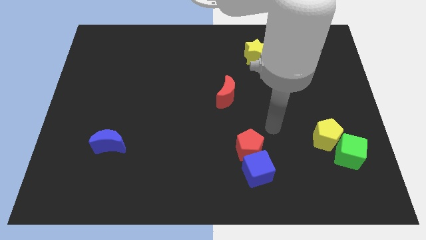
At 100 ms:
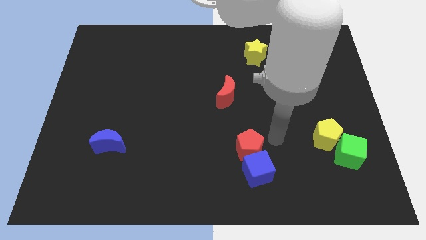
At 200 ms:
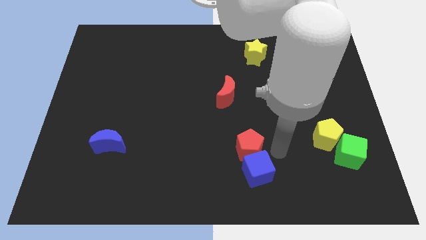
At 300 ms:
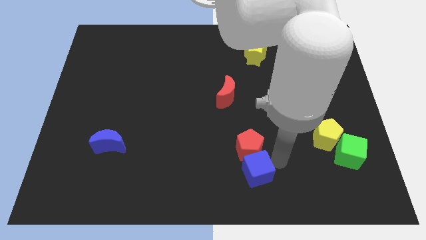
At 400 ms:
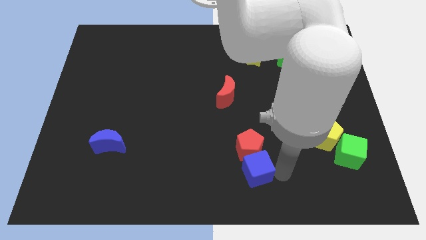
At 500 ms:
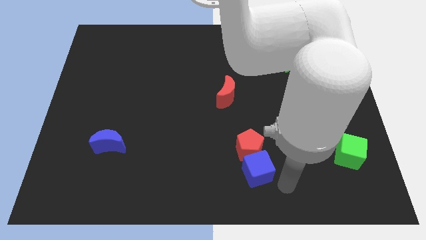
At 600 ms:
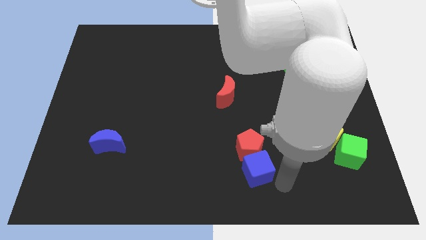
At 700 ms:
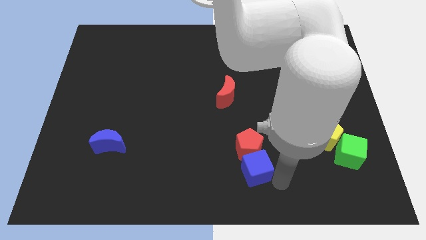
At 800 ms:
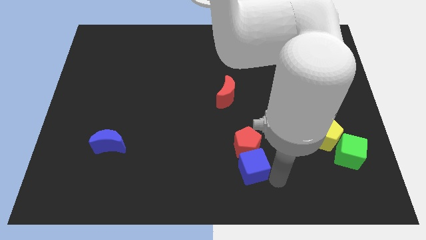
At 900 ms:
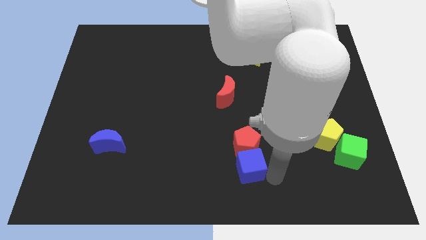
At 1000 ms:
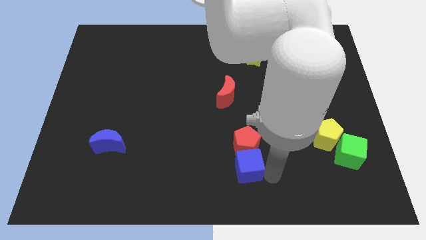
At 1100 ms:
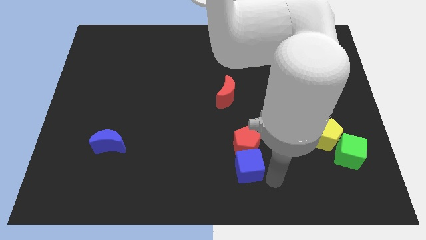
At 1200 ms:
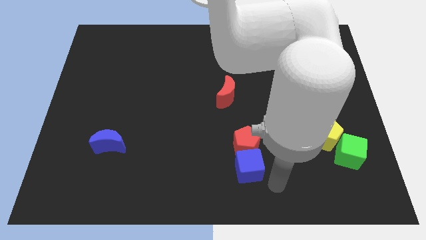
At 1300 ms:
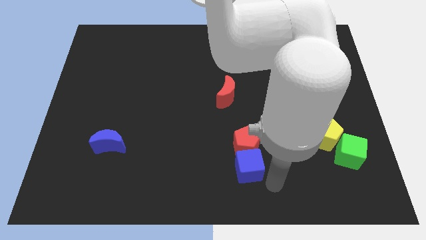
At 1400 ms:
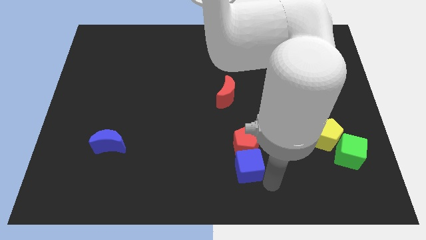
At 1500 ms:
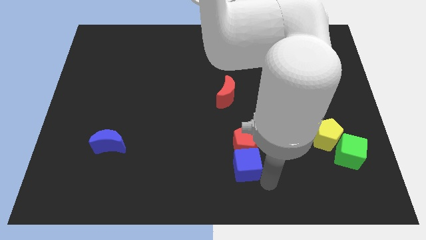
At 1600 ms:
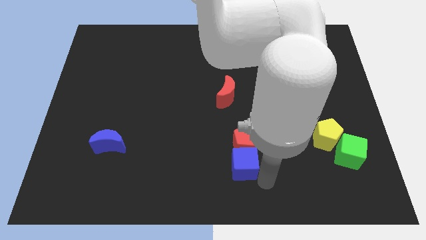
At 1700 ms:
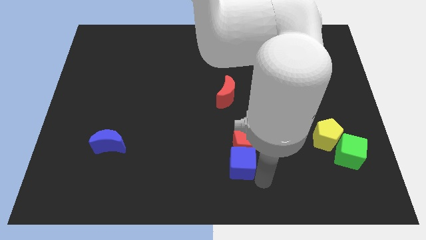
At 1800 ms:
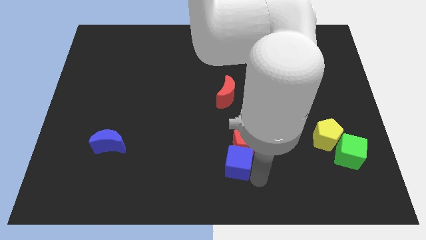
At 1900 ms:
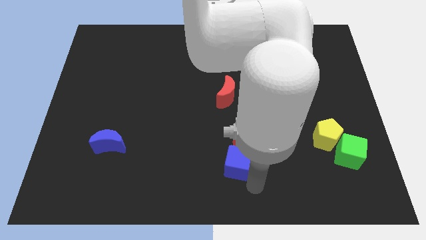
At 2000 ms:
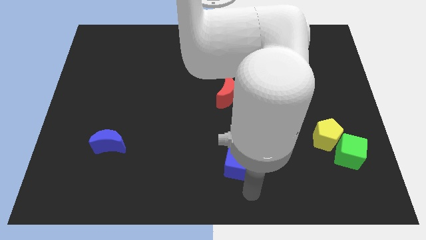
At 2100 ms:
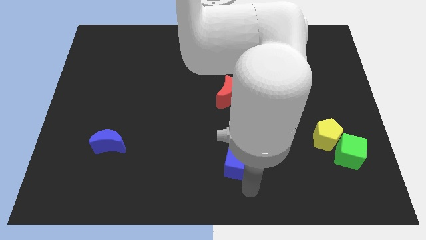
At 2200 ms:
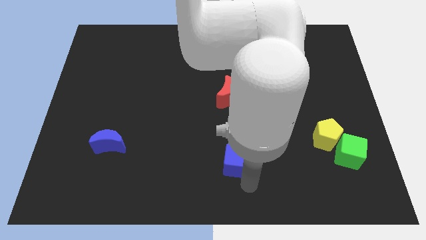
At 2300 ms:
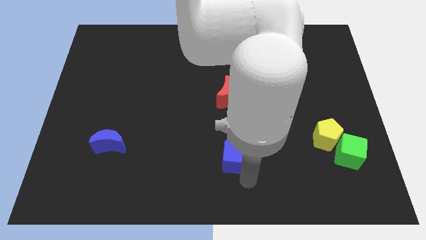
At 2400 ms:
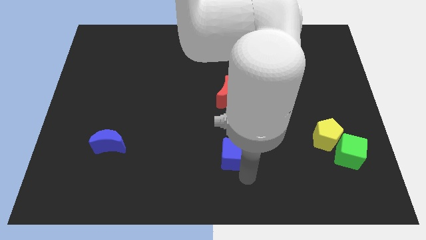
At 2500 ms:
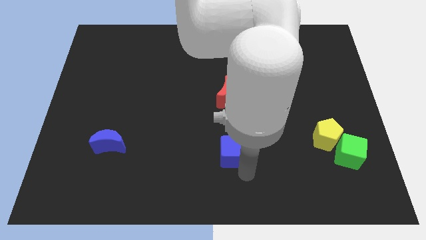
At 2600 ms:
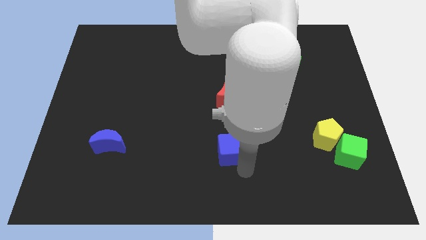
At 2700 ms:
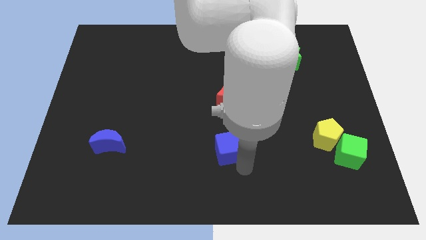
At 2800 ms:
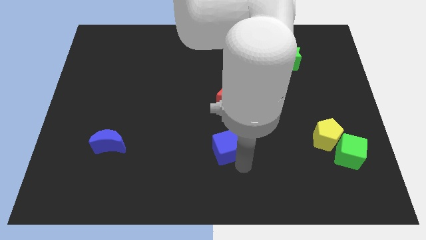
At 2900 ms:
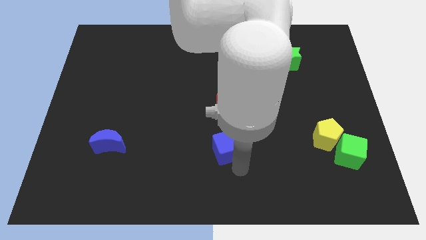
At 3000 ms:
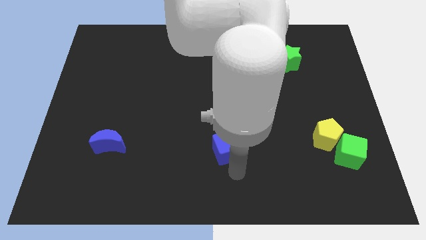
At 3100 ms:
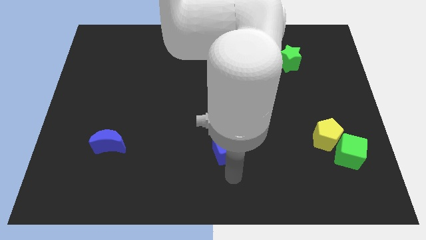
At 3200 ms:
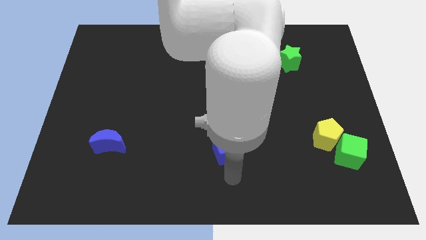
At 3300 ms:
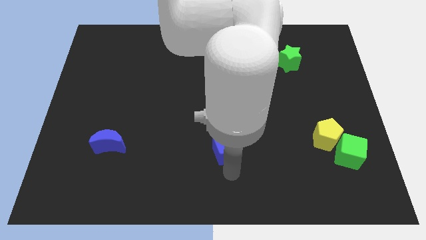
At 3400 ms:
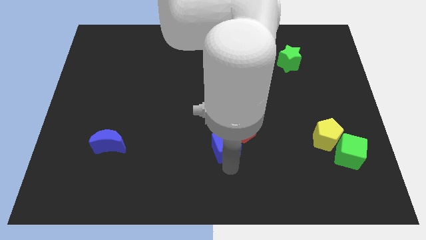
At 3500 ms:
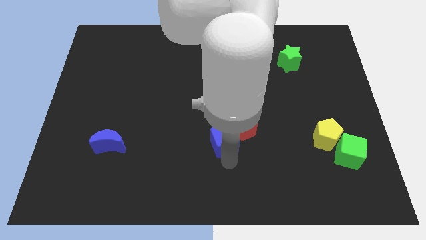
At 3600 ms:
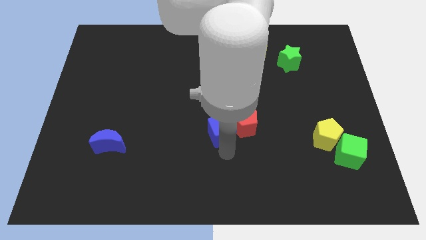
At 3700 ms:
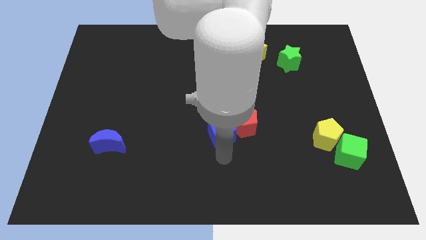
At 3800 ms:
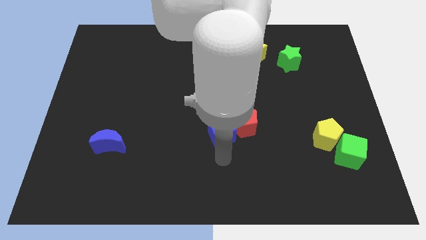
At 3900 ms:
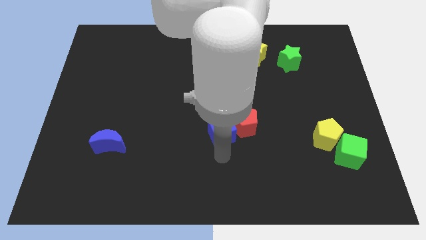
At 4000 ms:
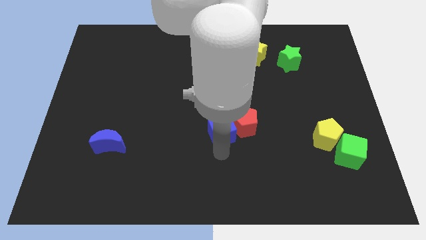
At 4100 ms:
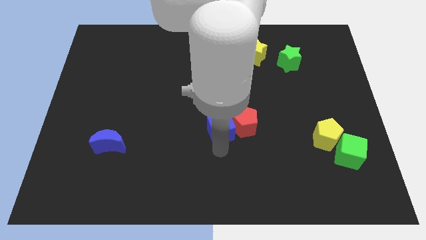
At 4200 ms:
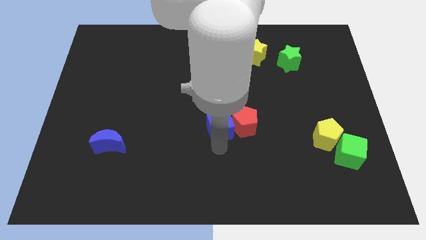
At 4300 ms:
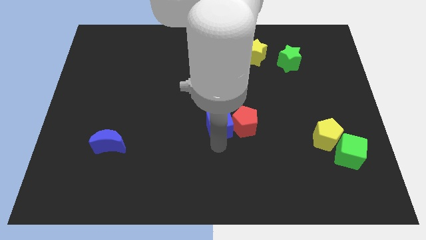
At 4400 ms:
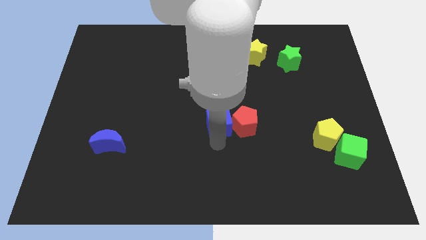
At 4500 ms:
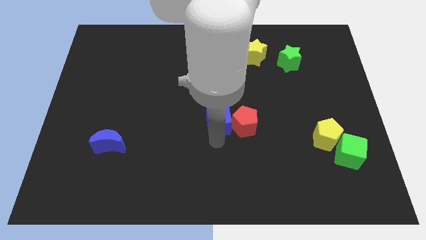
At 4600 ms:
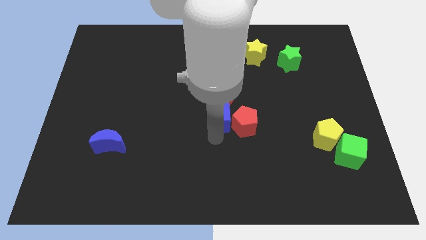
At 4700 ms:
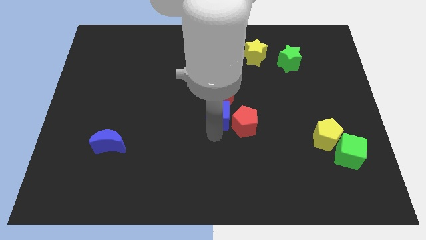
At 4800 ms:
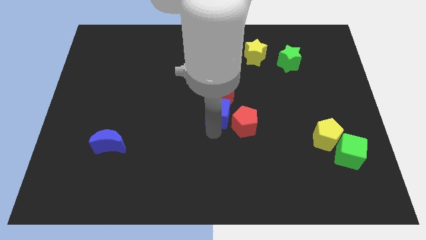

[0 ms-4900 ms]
push the blue cube close to the red moon

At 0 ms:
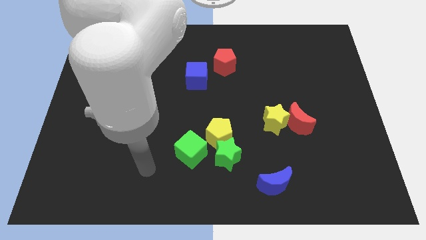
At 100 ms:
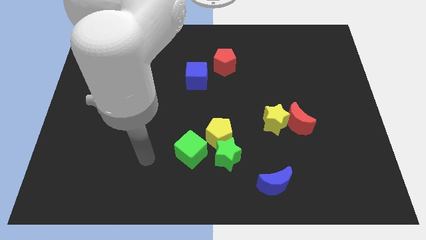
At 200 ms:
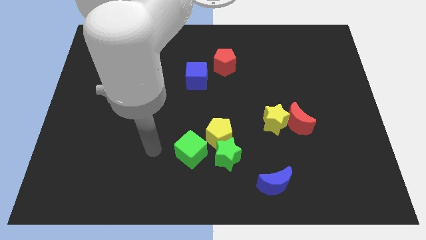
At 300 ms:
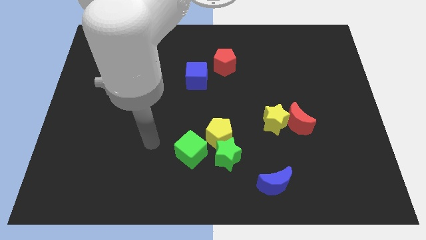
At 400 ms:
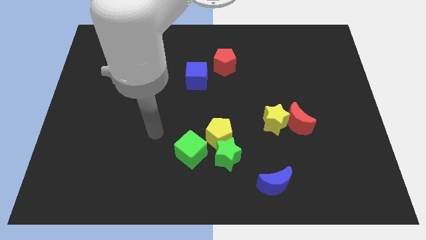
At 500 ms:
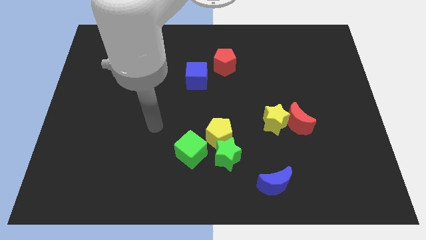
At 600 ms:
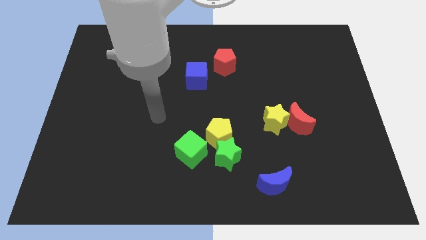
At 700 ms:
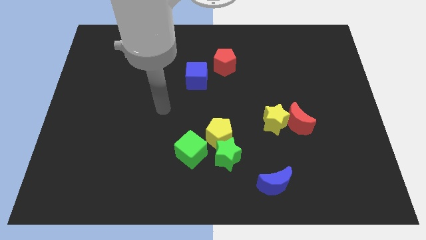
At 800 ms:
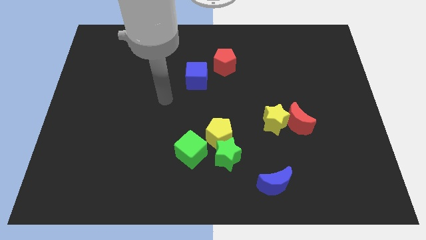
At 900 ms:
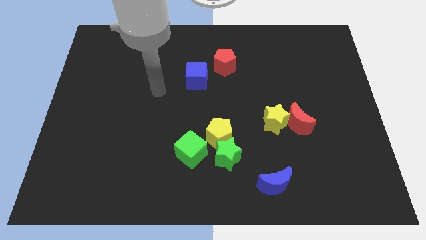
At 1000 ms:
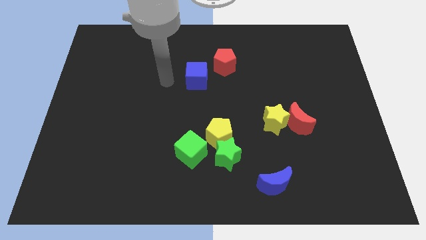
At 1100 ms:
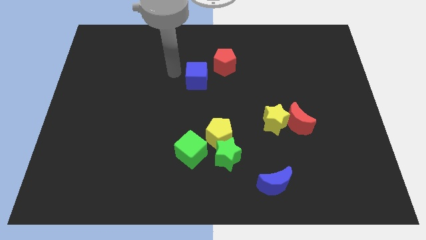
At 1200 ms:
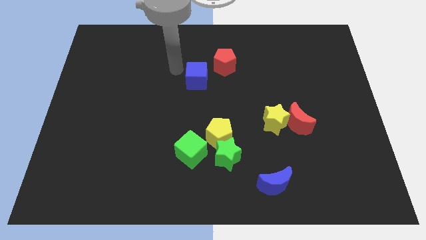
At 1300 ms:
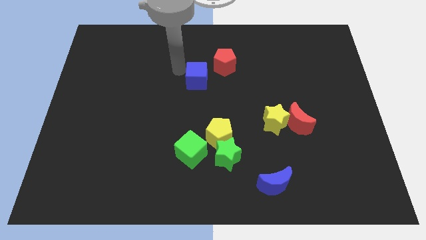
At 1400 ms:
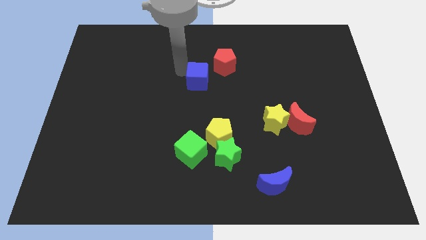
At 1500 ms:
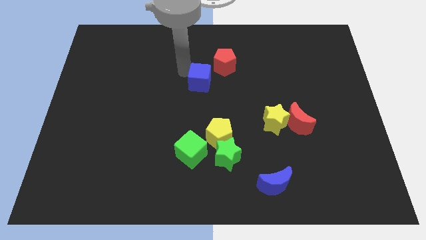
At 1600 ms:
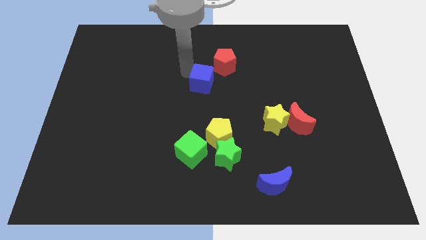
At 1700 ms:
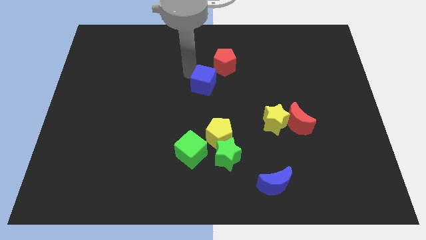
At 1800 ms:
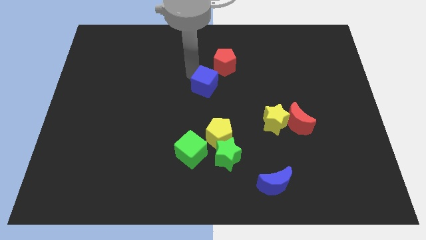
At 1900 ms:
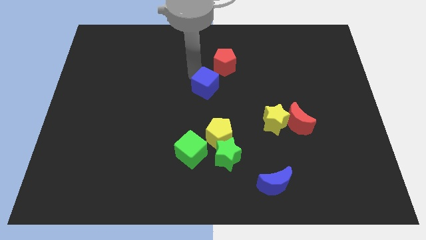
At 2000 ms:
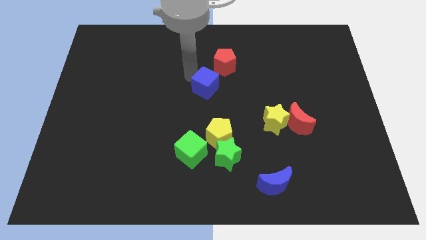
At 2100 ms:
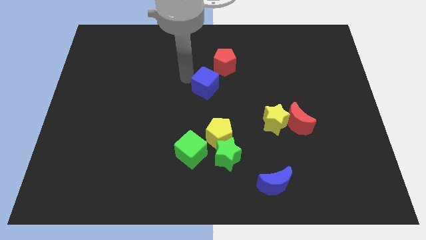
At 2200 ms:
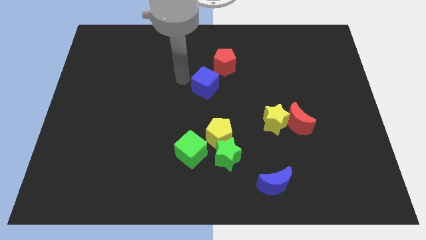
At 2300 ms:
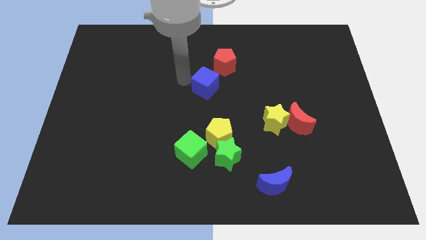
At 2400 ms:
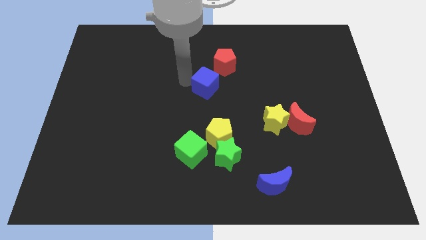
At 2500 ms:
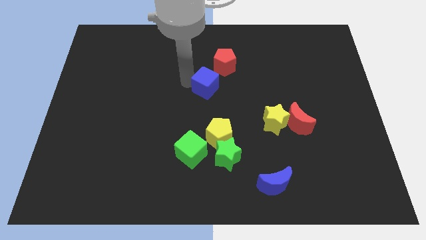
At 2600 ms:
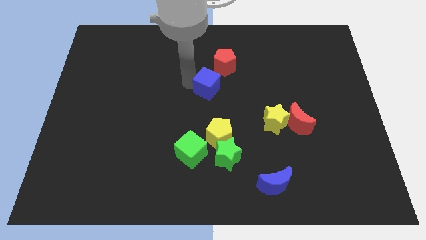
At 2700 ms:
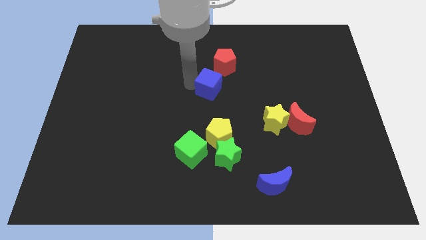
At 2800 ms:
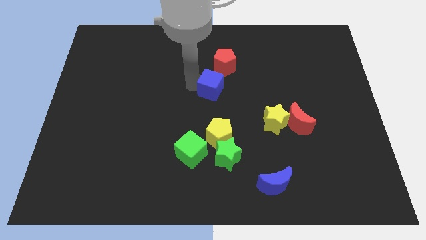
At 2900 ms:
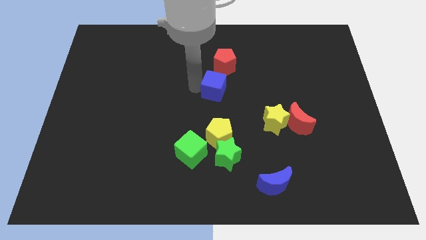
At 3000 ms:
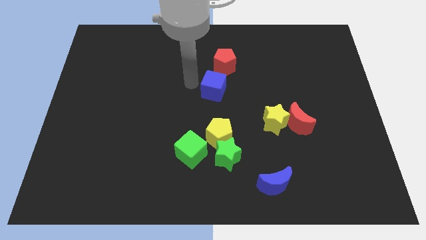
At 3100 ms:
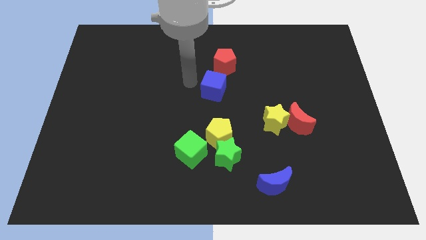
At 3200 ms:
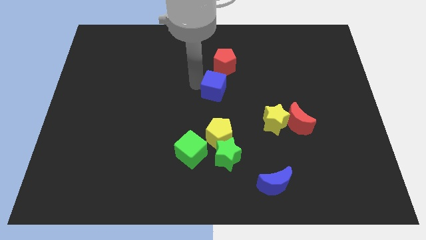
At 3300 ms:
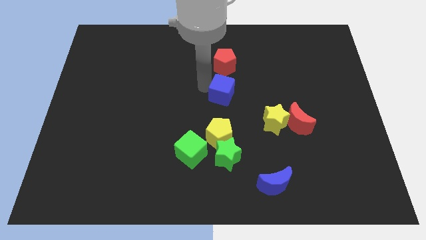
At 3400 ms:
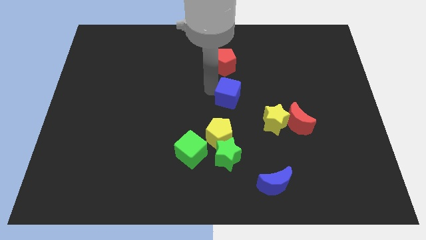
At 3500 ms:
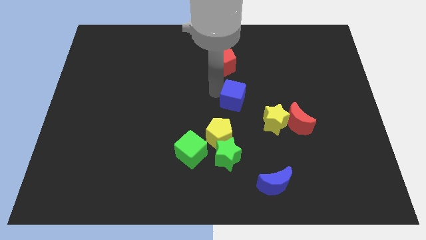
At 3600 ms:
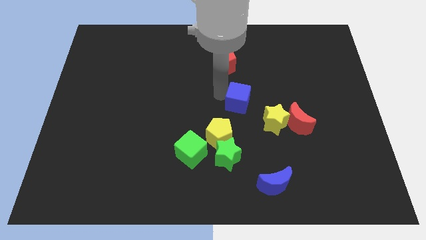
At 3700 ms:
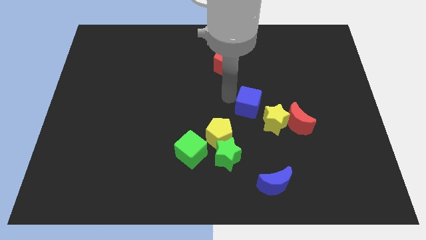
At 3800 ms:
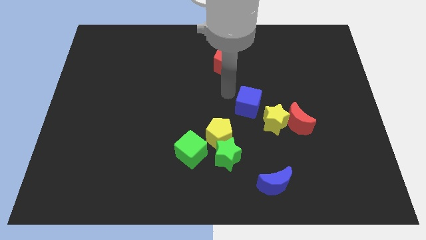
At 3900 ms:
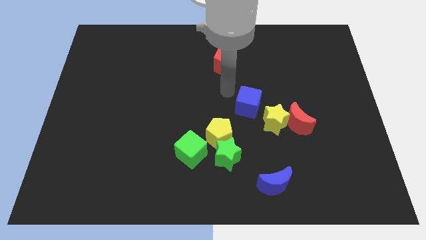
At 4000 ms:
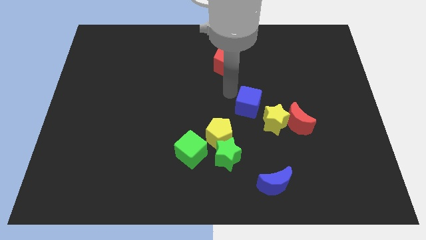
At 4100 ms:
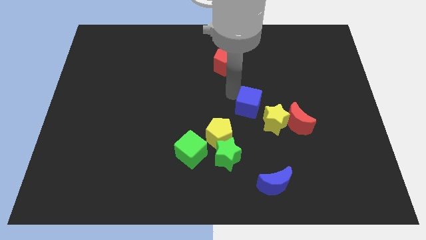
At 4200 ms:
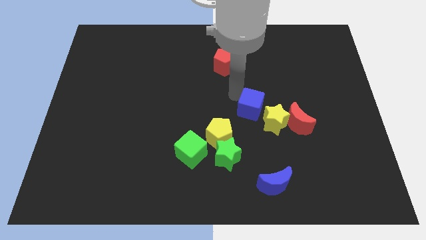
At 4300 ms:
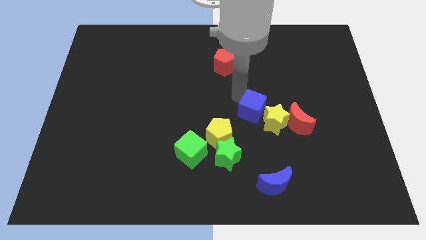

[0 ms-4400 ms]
push the blue cube towards the yellow star
